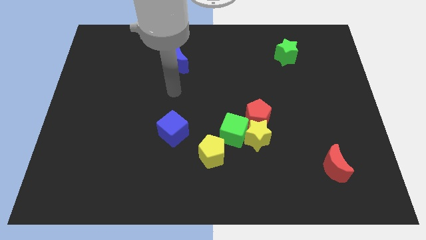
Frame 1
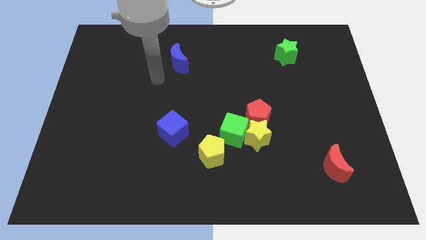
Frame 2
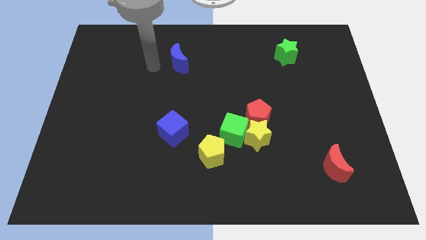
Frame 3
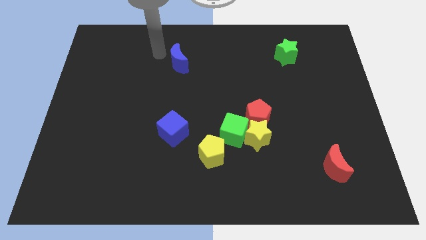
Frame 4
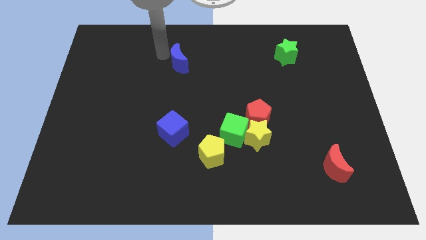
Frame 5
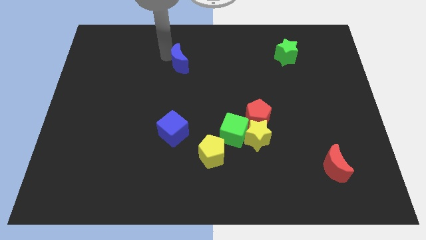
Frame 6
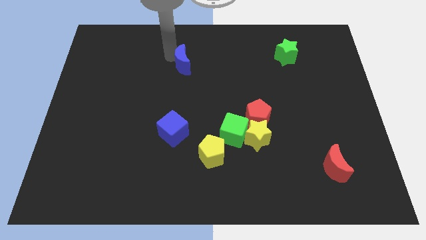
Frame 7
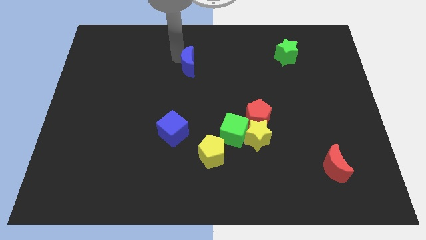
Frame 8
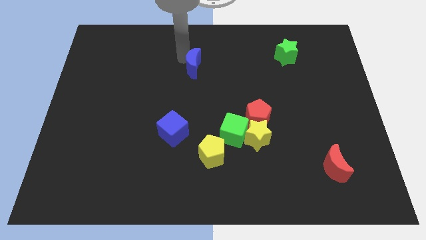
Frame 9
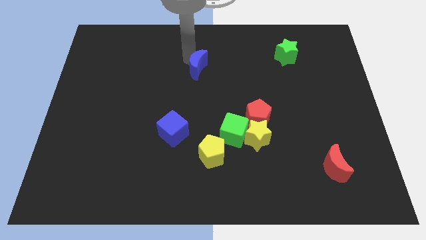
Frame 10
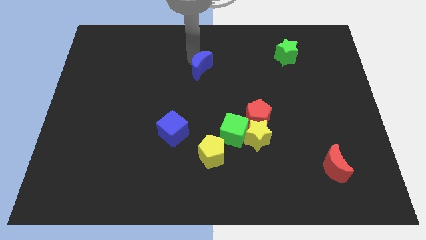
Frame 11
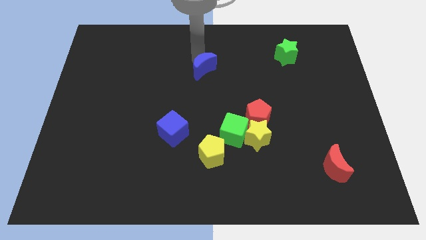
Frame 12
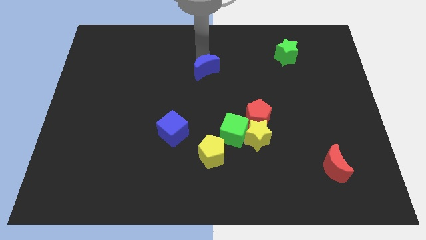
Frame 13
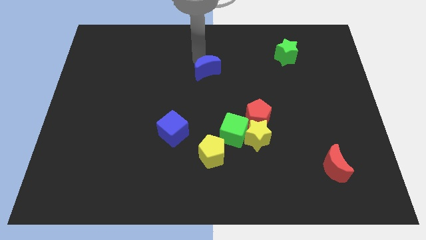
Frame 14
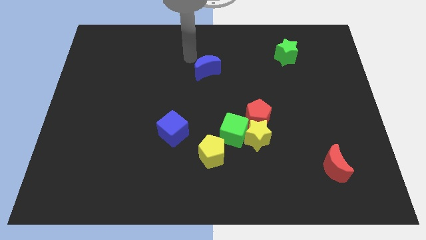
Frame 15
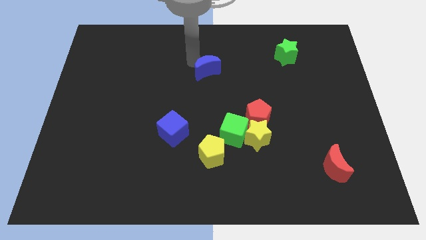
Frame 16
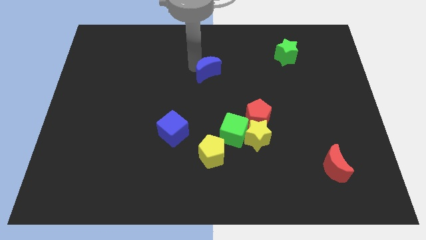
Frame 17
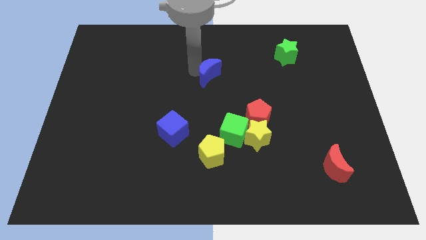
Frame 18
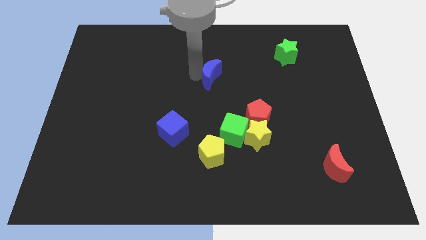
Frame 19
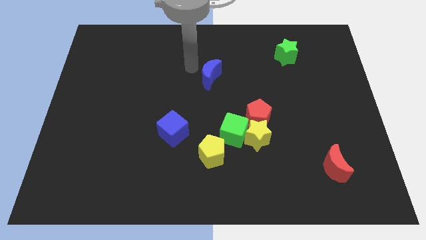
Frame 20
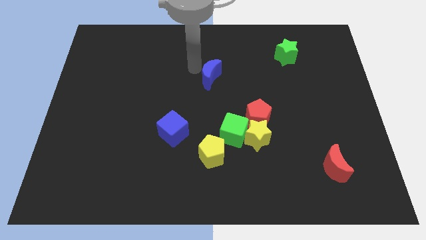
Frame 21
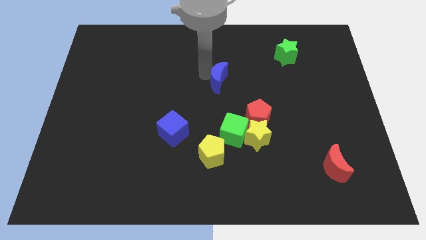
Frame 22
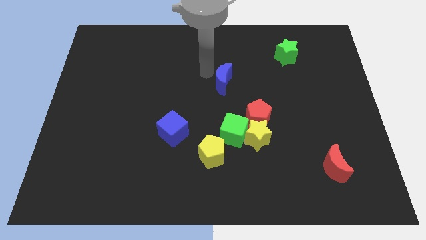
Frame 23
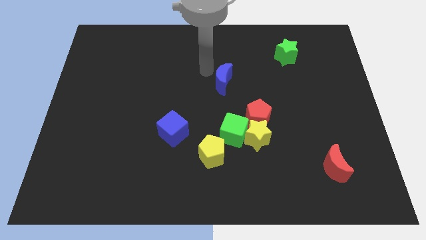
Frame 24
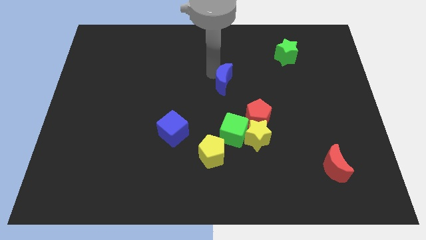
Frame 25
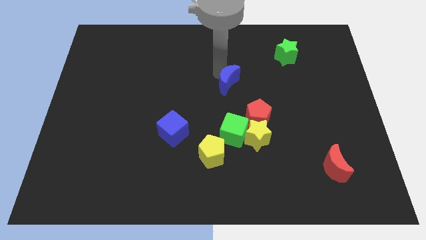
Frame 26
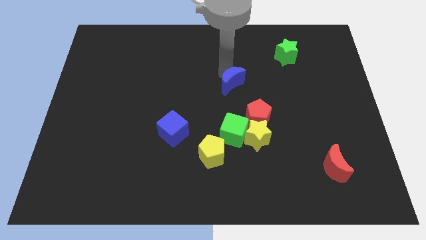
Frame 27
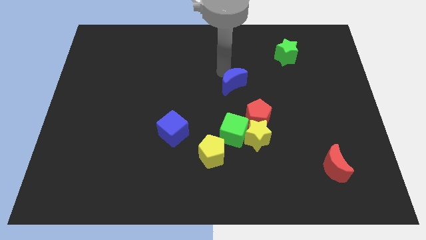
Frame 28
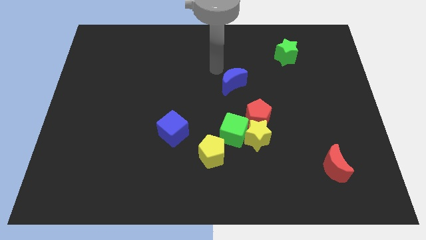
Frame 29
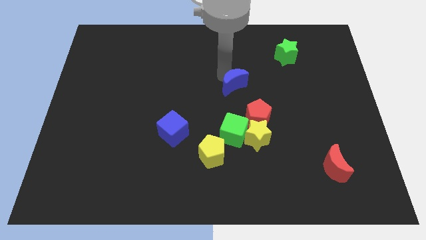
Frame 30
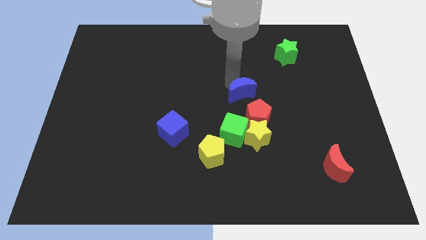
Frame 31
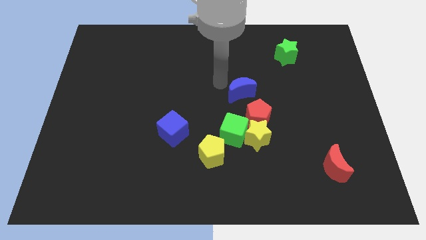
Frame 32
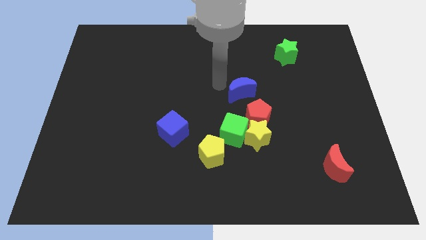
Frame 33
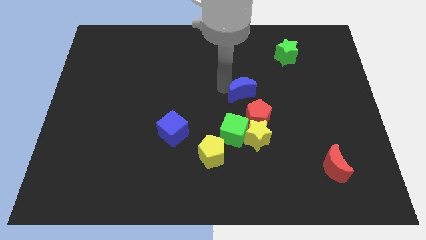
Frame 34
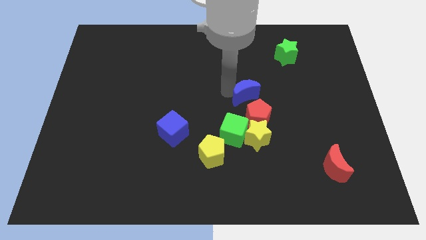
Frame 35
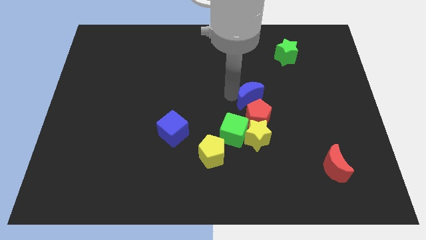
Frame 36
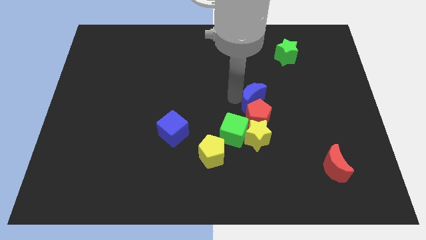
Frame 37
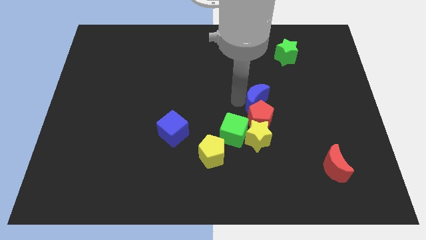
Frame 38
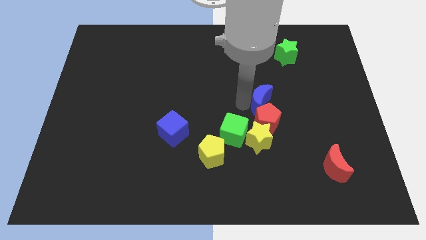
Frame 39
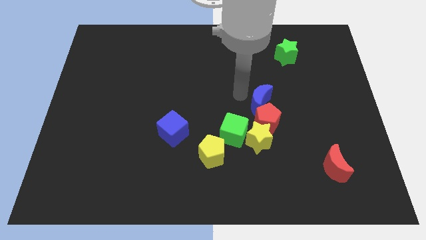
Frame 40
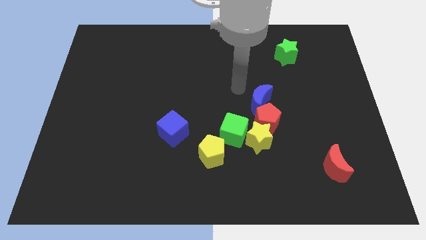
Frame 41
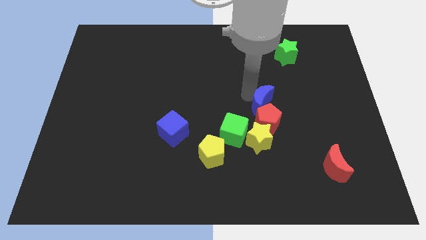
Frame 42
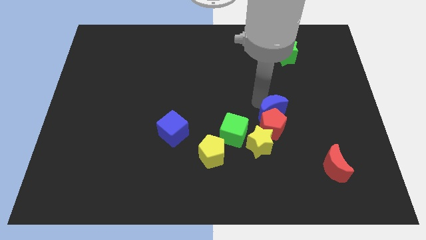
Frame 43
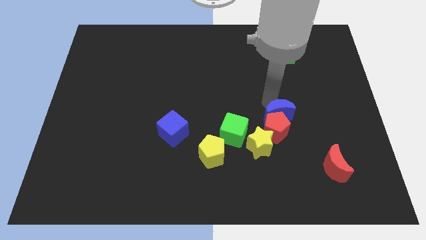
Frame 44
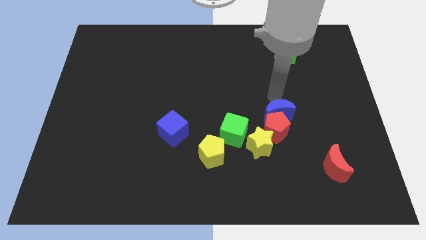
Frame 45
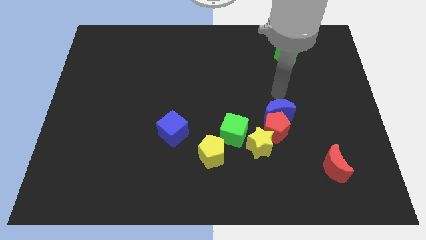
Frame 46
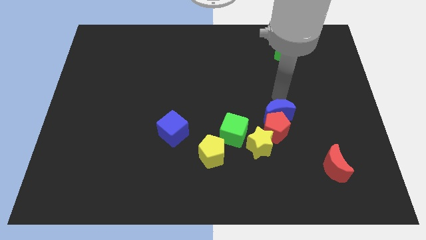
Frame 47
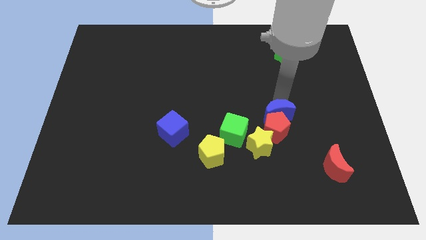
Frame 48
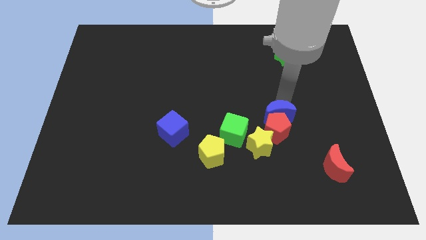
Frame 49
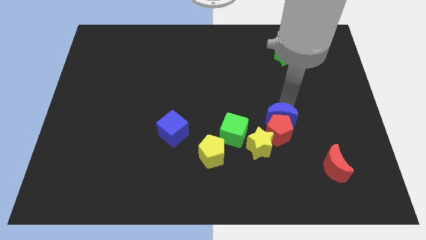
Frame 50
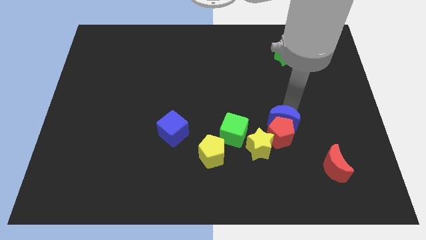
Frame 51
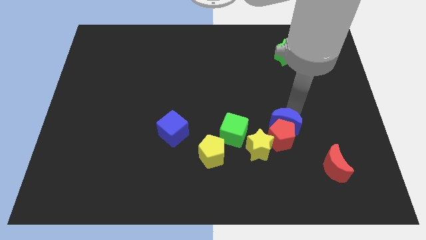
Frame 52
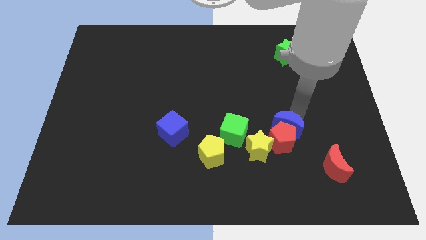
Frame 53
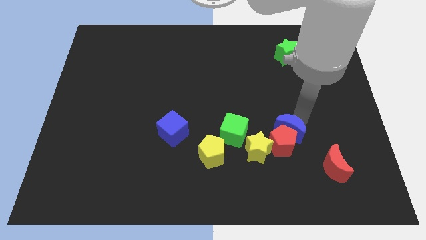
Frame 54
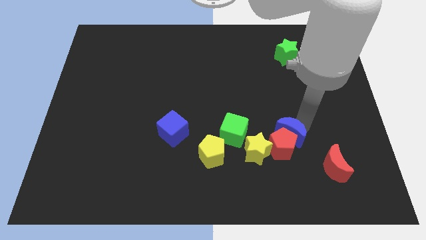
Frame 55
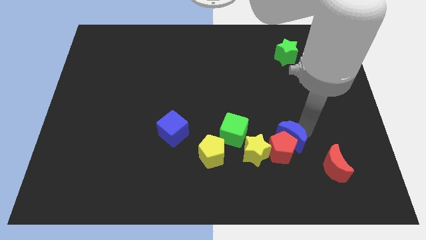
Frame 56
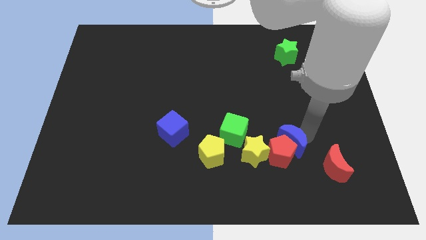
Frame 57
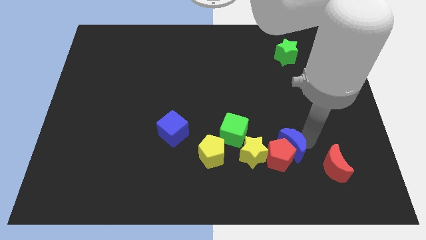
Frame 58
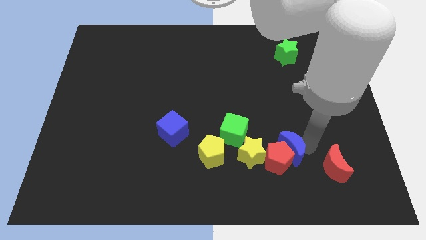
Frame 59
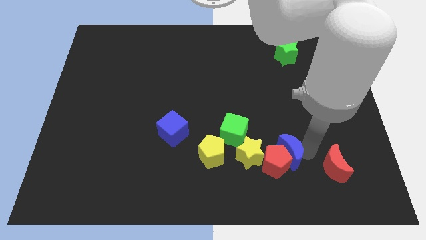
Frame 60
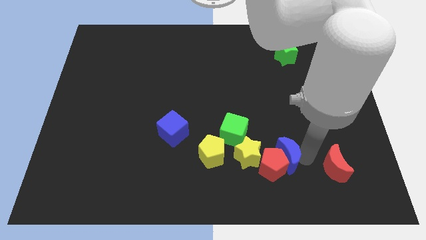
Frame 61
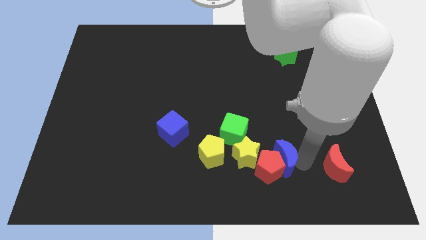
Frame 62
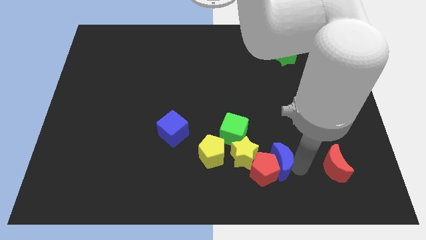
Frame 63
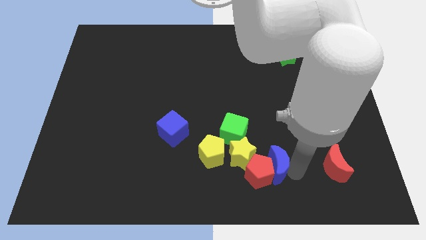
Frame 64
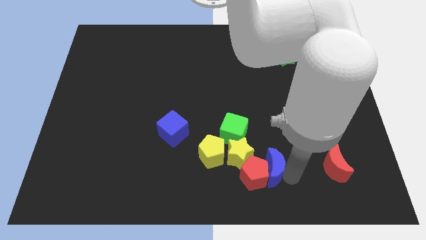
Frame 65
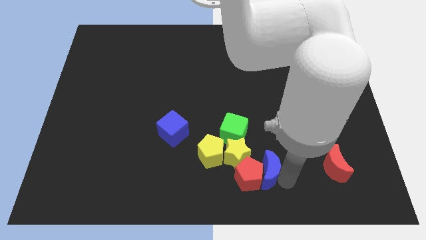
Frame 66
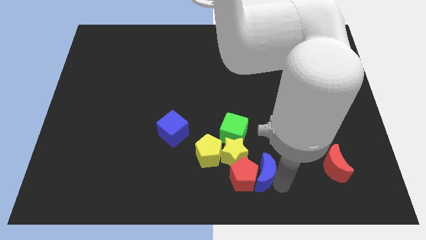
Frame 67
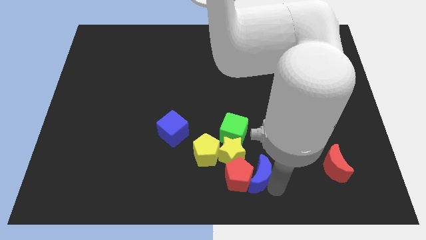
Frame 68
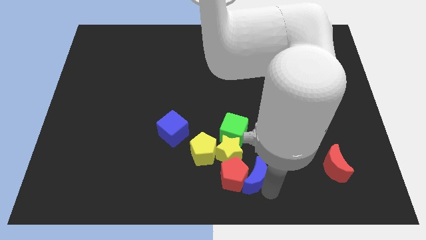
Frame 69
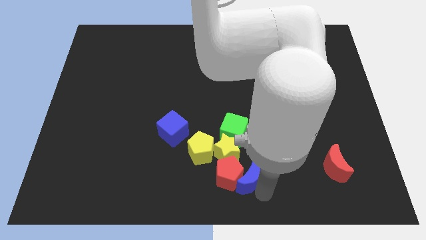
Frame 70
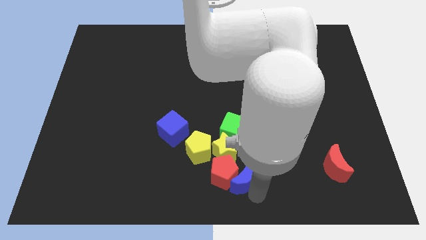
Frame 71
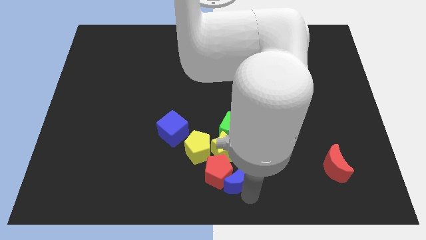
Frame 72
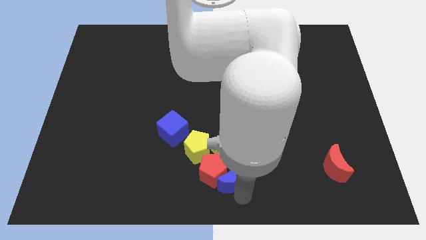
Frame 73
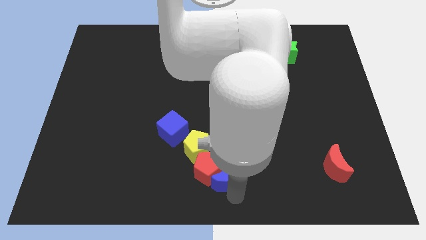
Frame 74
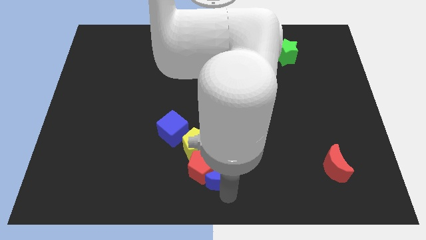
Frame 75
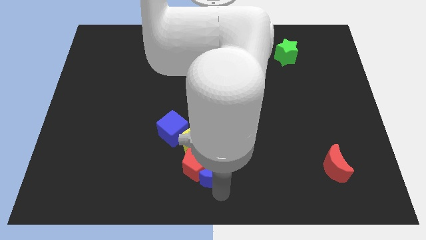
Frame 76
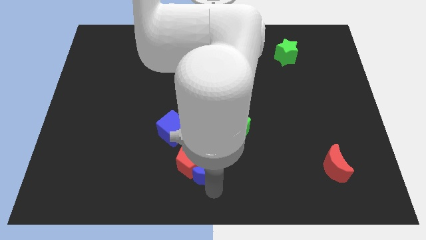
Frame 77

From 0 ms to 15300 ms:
push the blue moon towards the yellow star
